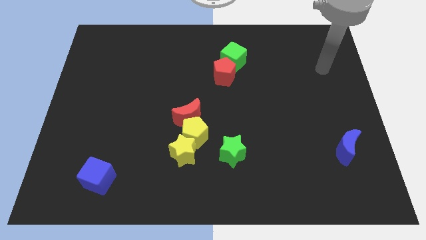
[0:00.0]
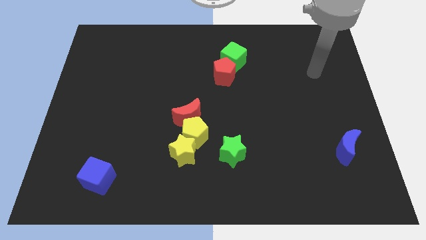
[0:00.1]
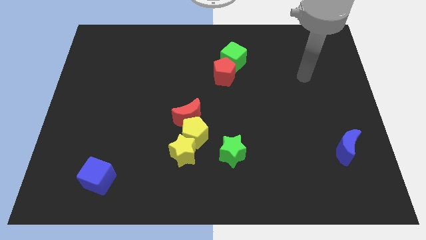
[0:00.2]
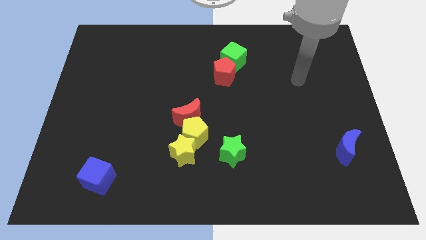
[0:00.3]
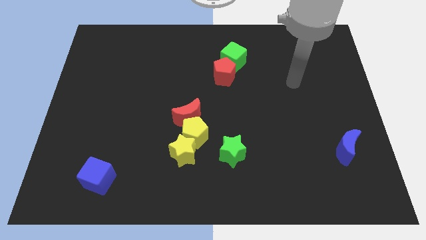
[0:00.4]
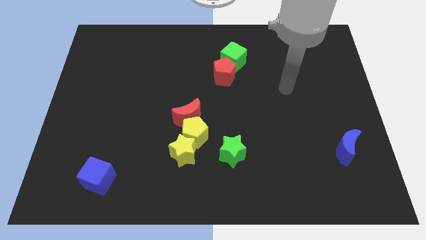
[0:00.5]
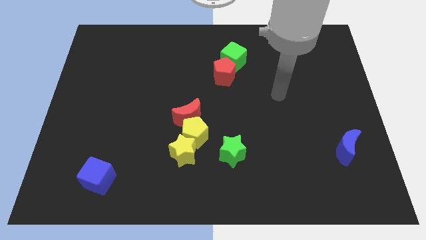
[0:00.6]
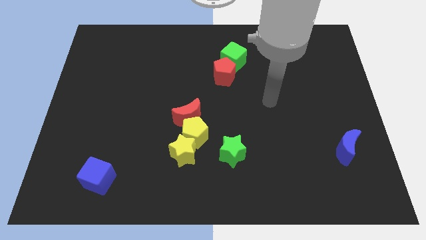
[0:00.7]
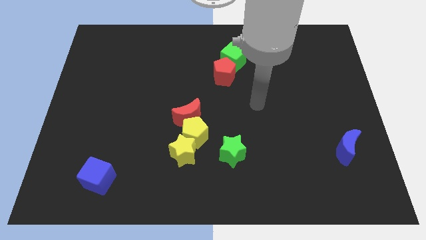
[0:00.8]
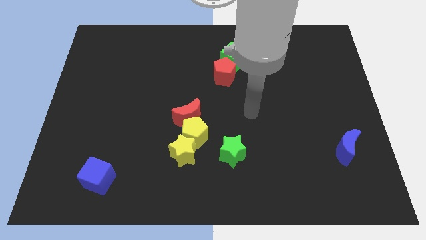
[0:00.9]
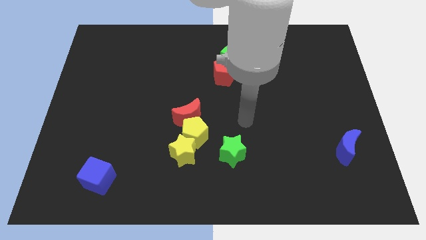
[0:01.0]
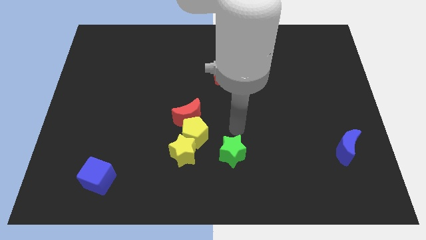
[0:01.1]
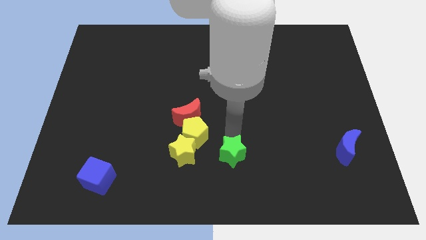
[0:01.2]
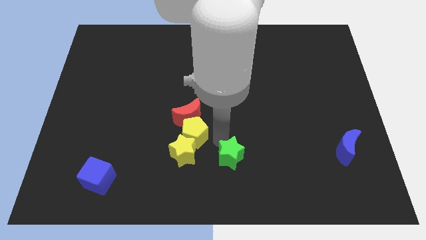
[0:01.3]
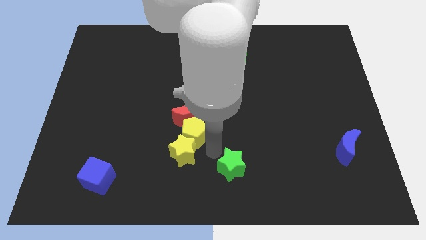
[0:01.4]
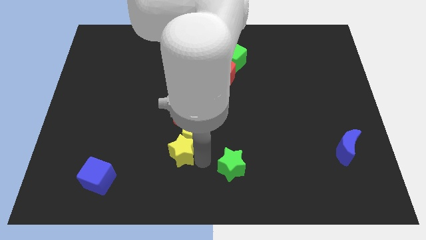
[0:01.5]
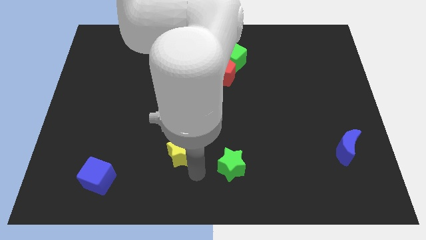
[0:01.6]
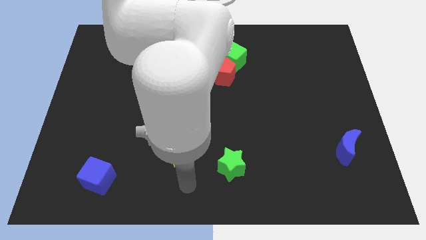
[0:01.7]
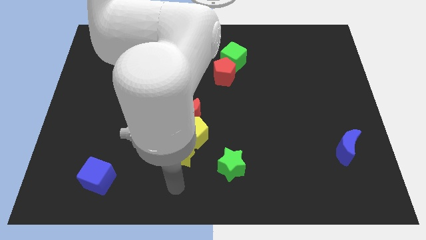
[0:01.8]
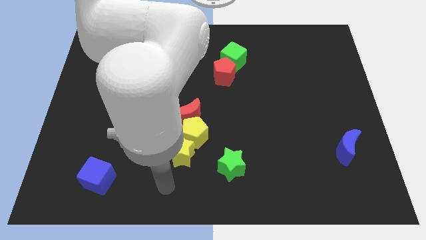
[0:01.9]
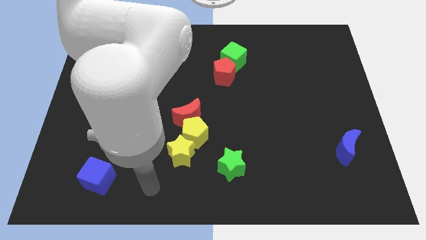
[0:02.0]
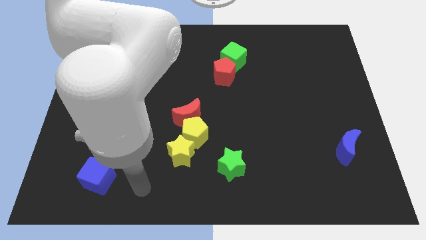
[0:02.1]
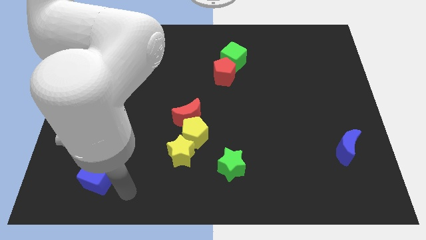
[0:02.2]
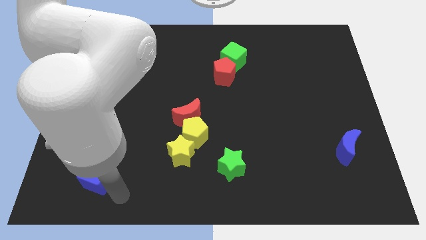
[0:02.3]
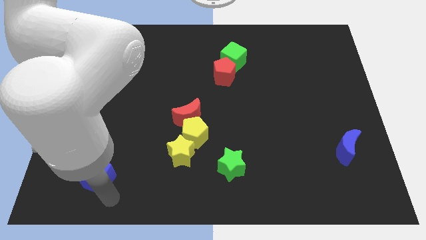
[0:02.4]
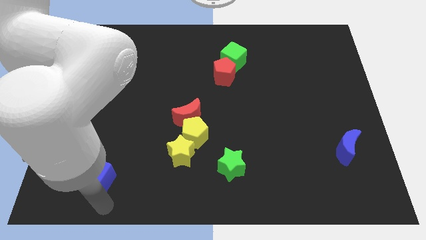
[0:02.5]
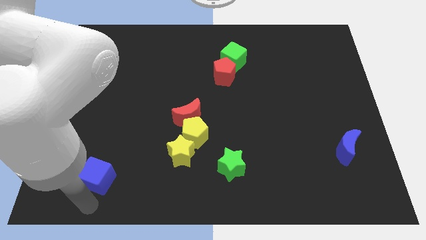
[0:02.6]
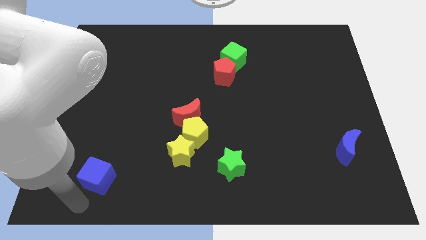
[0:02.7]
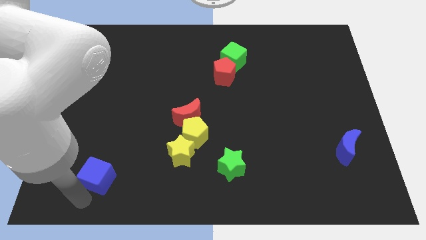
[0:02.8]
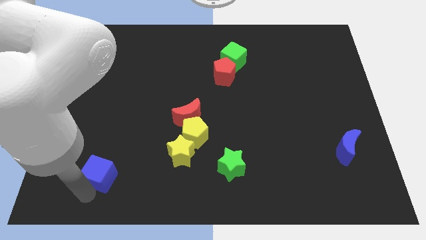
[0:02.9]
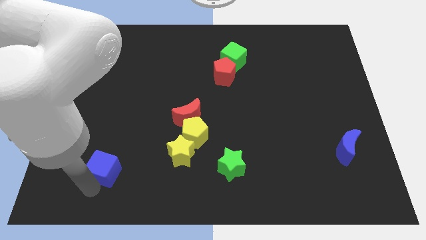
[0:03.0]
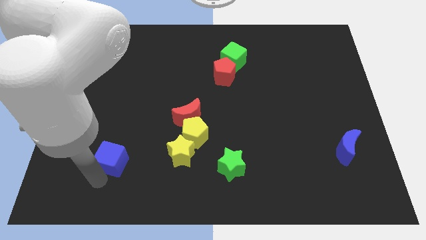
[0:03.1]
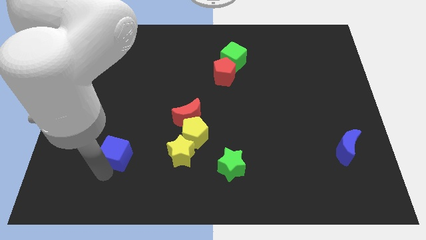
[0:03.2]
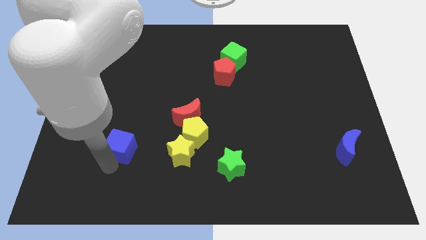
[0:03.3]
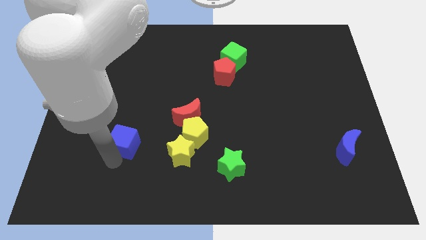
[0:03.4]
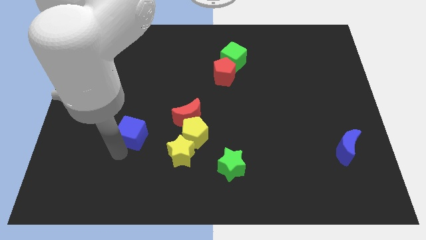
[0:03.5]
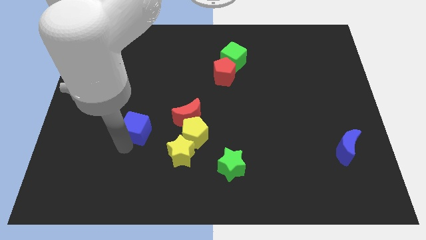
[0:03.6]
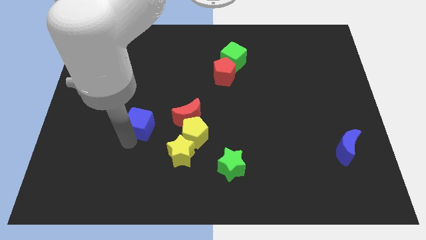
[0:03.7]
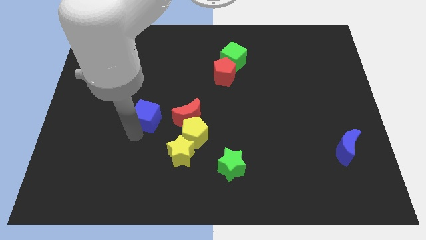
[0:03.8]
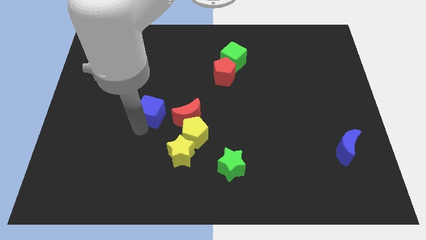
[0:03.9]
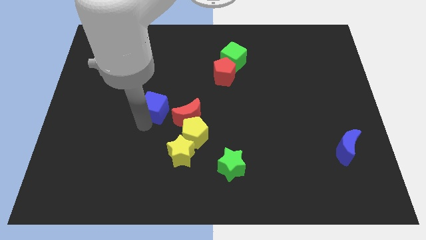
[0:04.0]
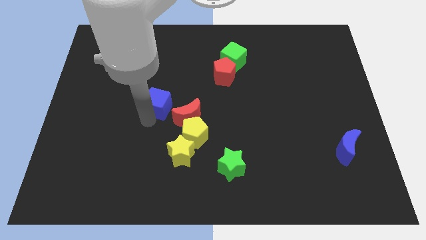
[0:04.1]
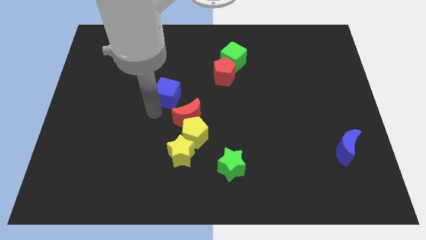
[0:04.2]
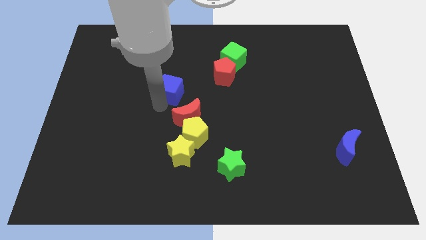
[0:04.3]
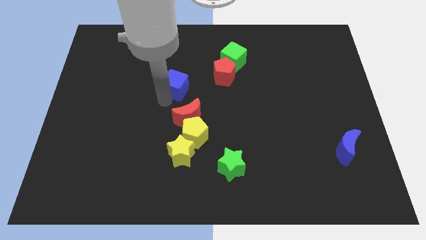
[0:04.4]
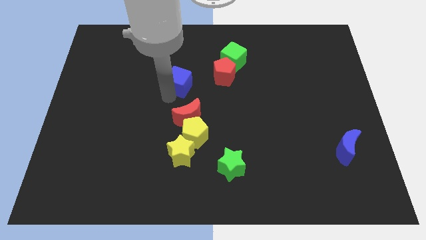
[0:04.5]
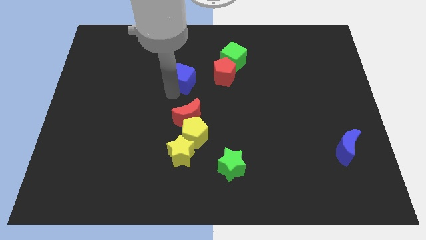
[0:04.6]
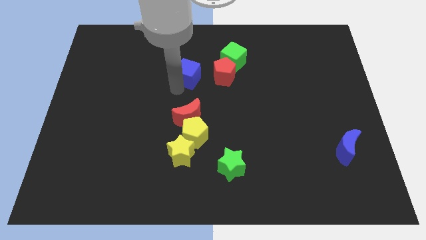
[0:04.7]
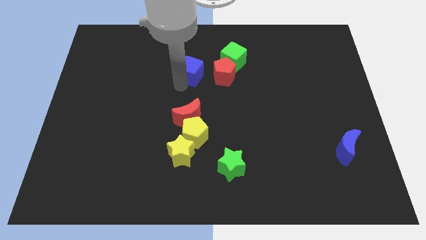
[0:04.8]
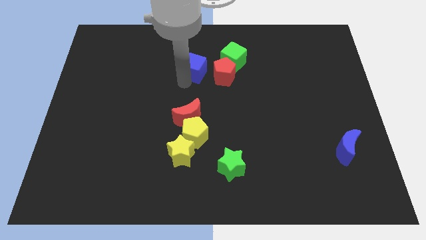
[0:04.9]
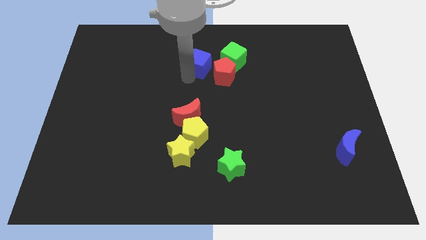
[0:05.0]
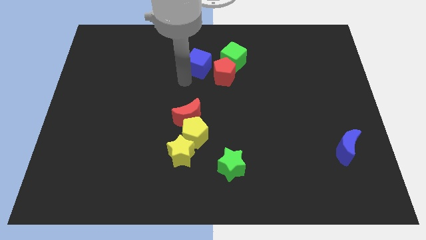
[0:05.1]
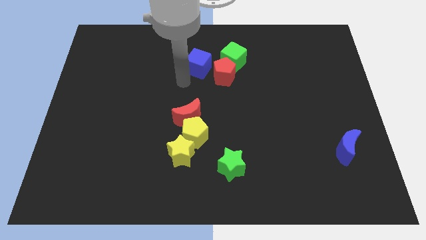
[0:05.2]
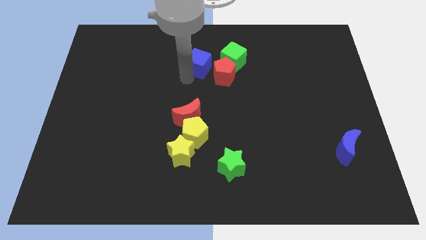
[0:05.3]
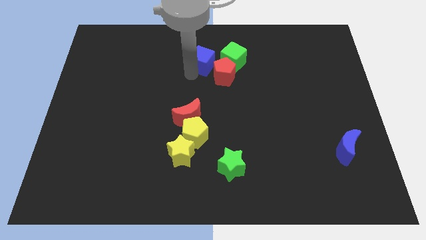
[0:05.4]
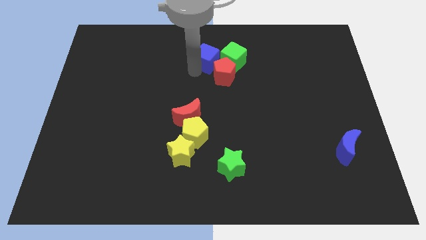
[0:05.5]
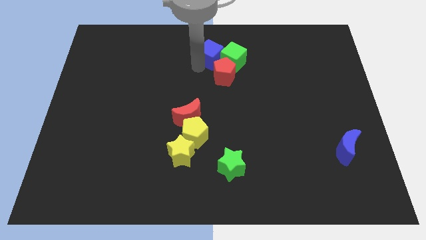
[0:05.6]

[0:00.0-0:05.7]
move the blue cube next to the green cube
